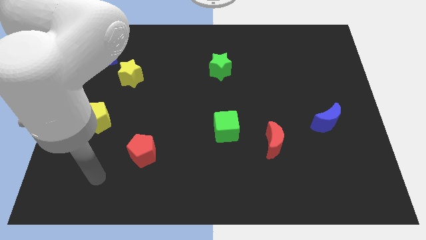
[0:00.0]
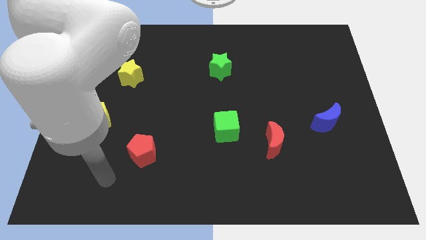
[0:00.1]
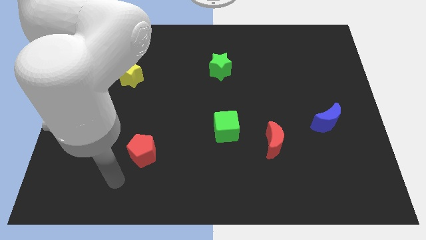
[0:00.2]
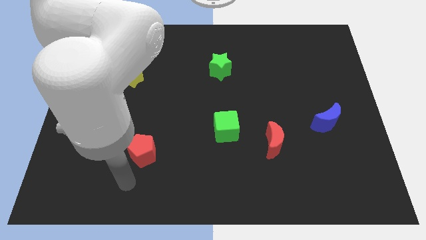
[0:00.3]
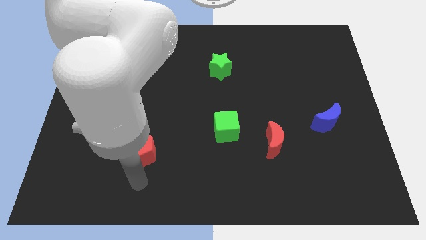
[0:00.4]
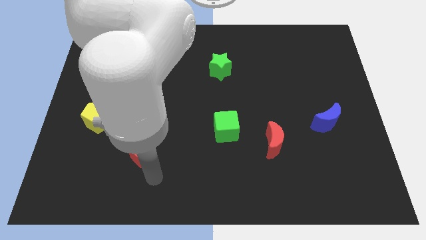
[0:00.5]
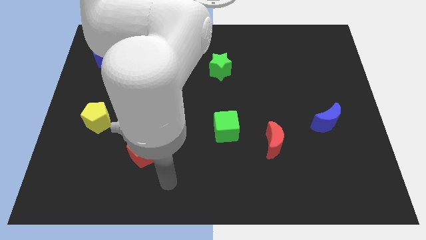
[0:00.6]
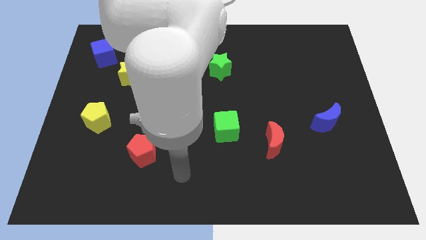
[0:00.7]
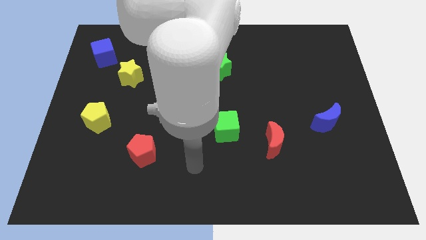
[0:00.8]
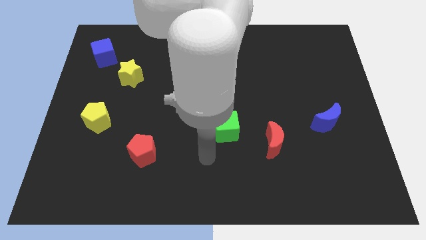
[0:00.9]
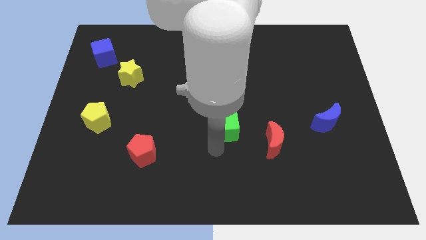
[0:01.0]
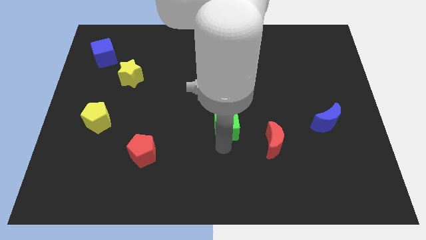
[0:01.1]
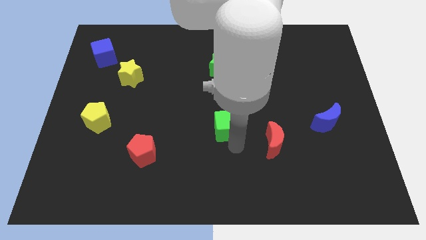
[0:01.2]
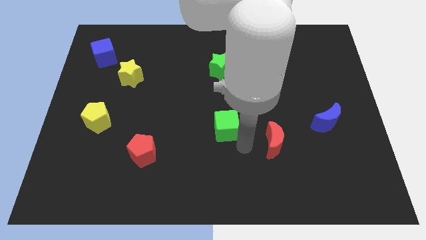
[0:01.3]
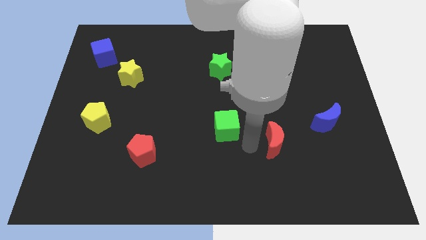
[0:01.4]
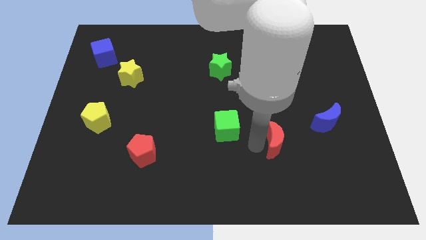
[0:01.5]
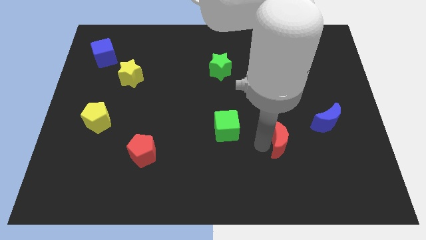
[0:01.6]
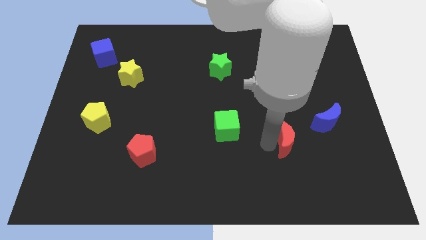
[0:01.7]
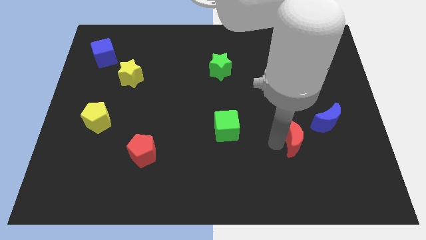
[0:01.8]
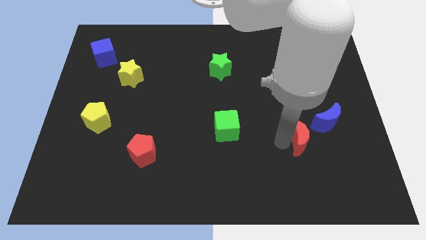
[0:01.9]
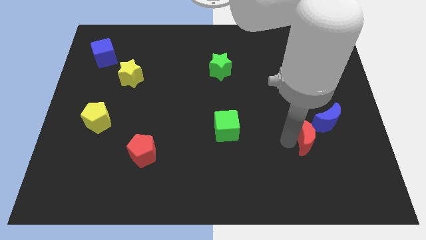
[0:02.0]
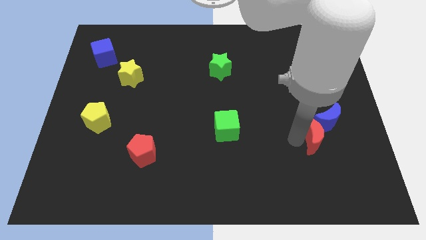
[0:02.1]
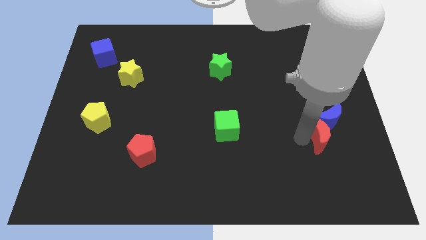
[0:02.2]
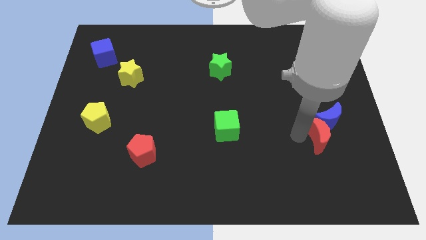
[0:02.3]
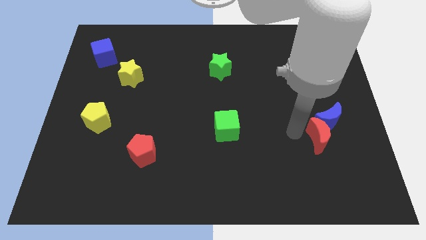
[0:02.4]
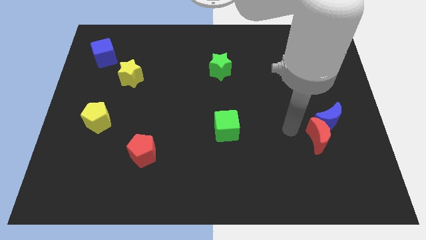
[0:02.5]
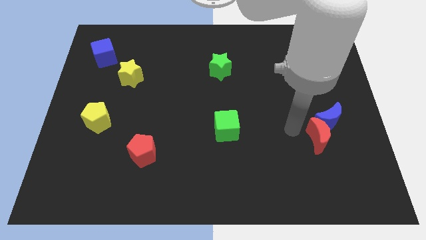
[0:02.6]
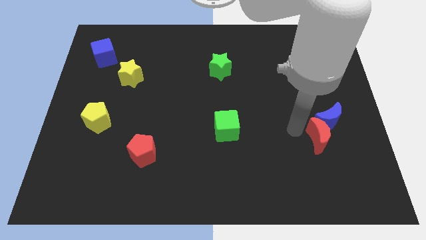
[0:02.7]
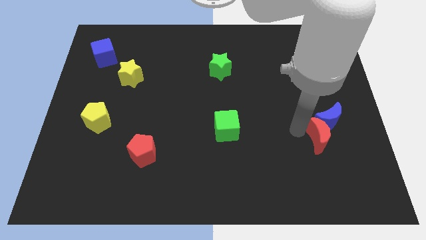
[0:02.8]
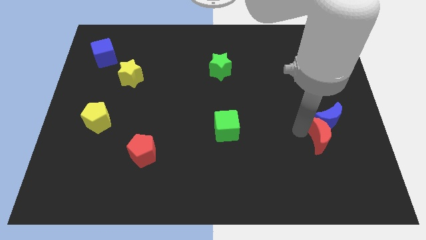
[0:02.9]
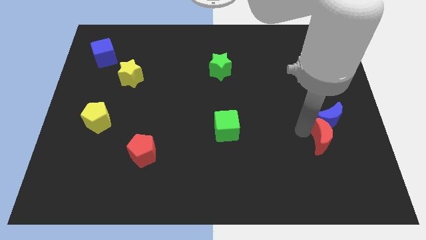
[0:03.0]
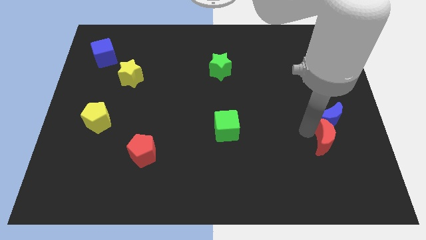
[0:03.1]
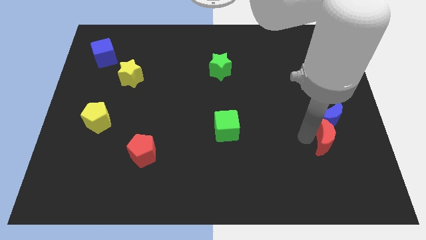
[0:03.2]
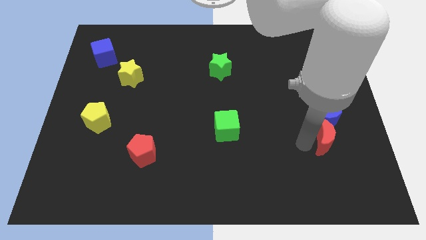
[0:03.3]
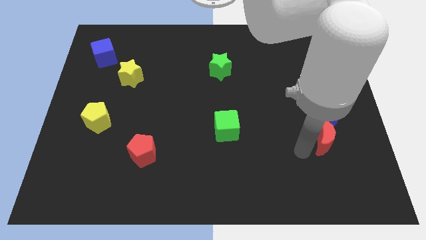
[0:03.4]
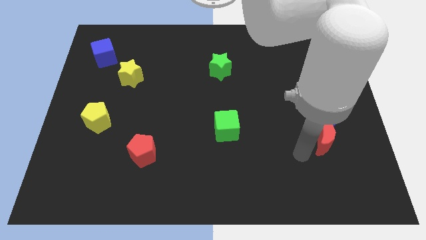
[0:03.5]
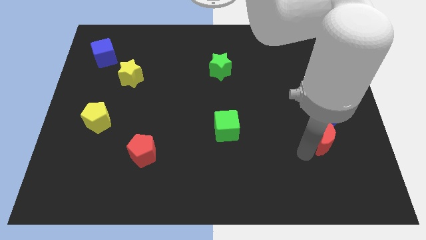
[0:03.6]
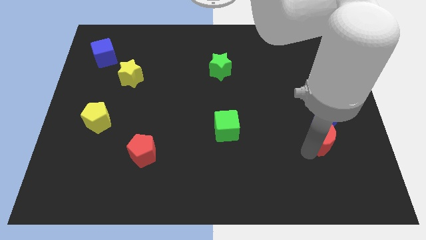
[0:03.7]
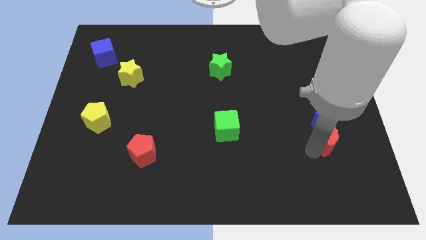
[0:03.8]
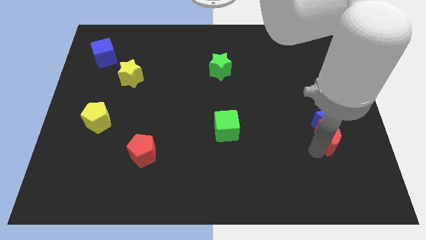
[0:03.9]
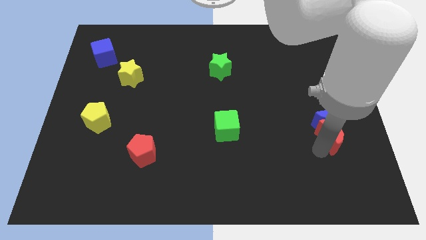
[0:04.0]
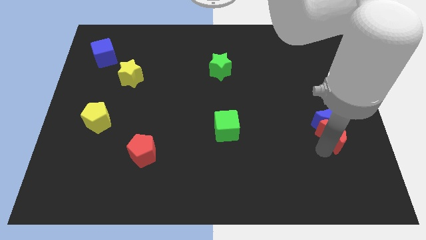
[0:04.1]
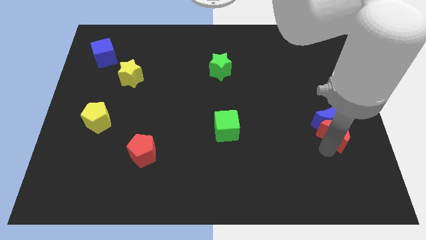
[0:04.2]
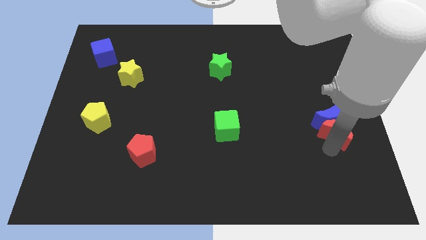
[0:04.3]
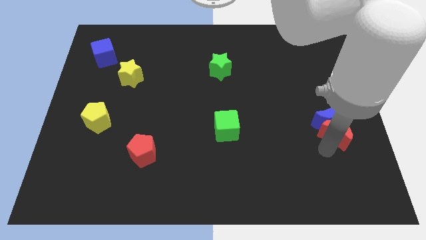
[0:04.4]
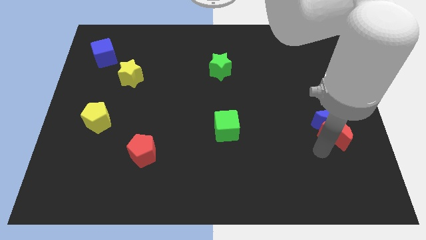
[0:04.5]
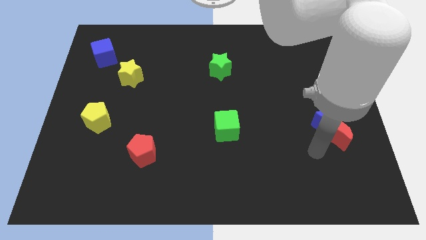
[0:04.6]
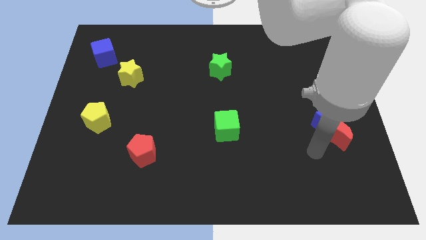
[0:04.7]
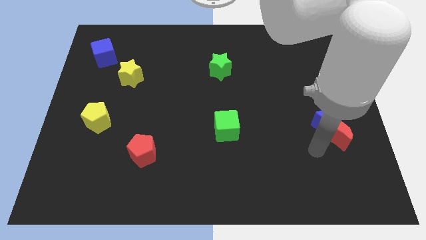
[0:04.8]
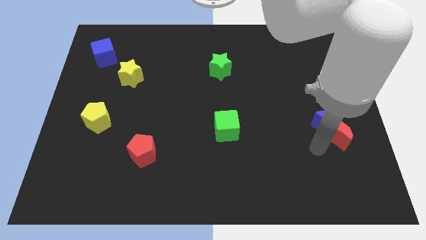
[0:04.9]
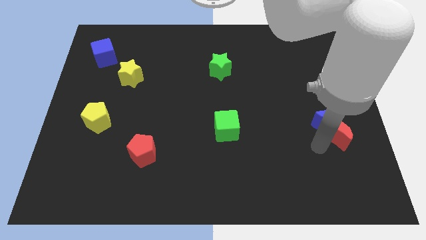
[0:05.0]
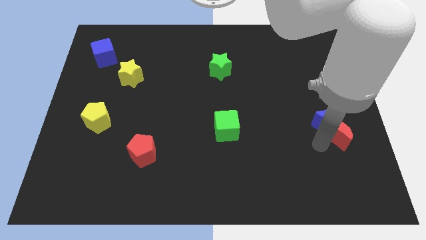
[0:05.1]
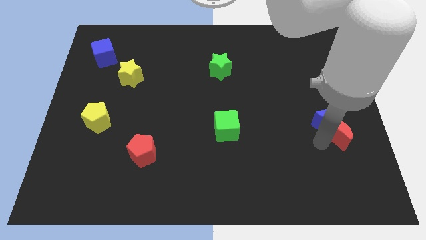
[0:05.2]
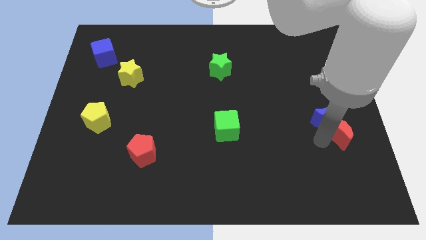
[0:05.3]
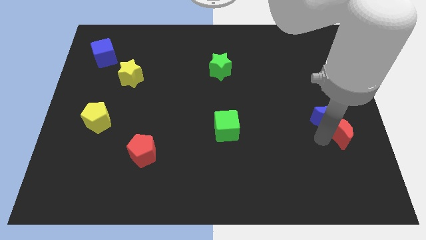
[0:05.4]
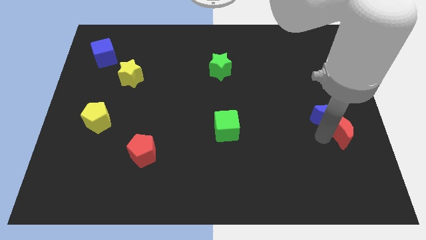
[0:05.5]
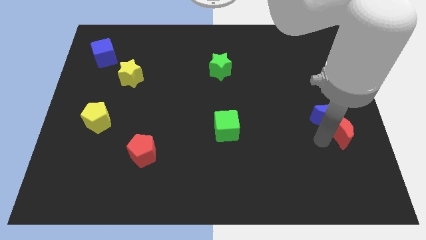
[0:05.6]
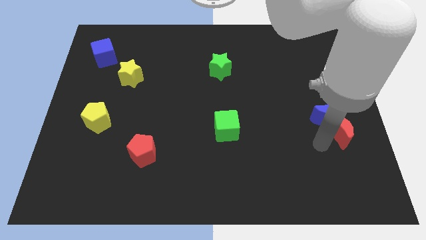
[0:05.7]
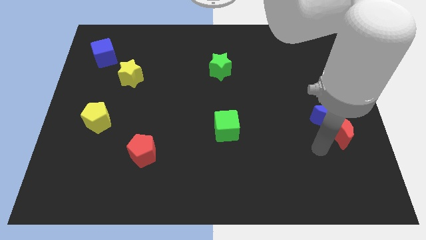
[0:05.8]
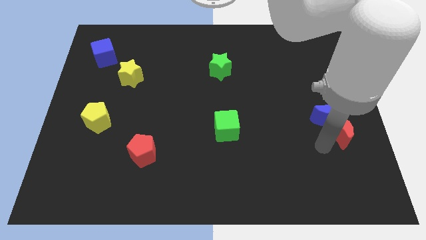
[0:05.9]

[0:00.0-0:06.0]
move the red moon to the center right

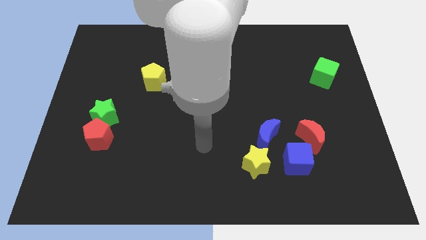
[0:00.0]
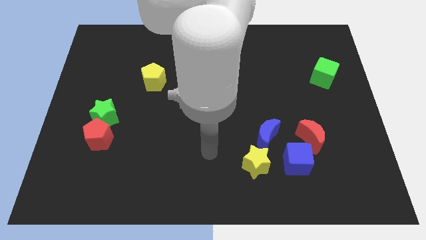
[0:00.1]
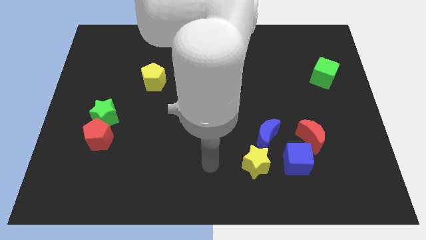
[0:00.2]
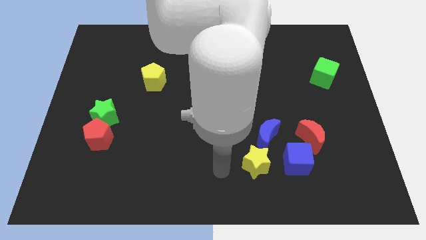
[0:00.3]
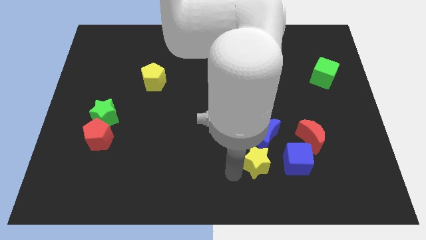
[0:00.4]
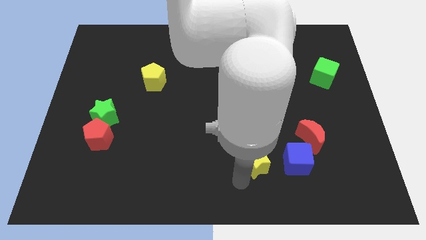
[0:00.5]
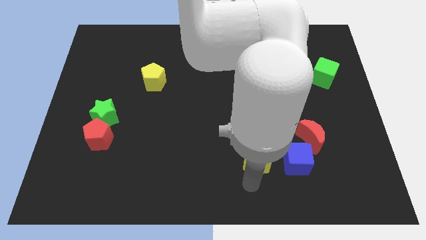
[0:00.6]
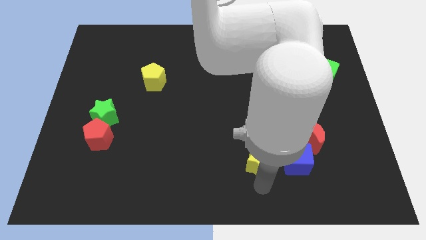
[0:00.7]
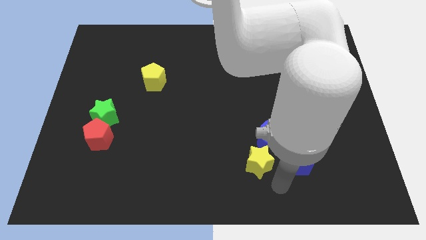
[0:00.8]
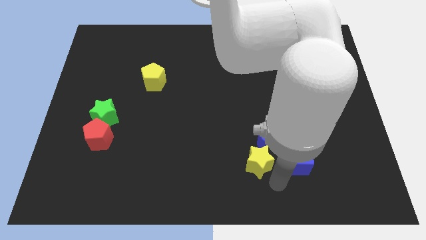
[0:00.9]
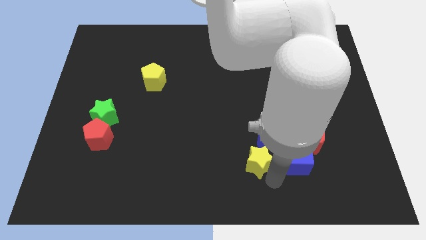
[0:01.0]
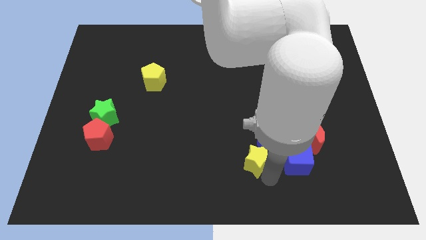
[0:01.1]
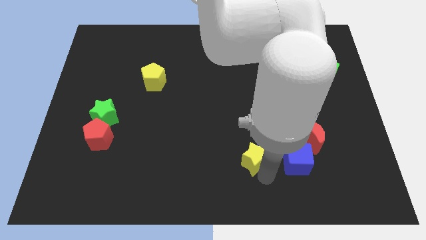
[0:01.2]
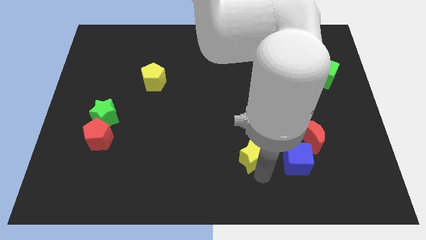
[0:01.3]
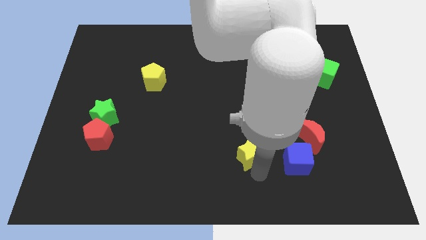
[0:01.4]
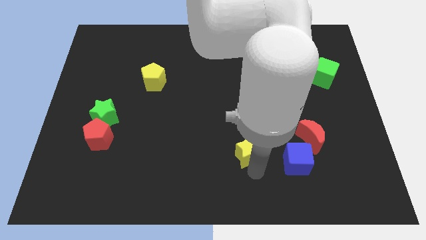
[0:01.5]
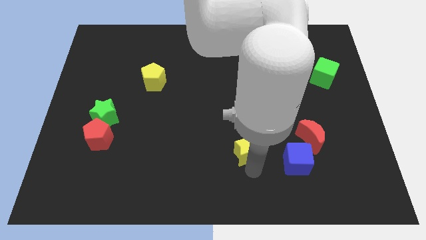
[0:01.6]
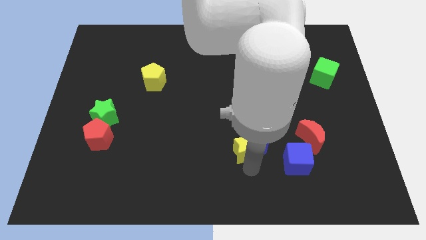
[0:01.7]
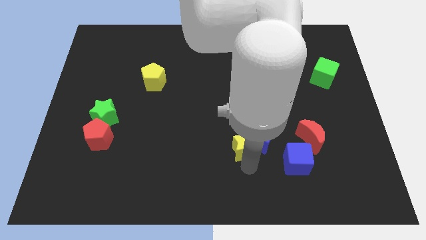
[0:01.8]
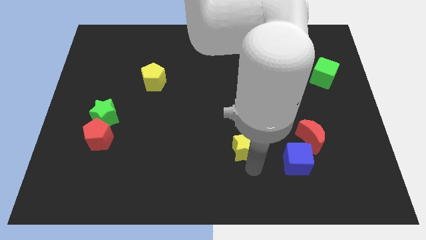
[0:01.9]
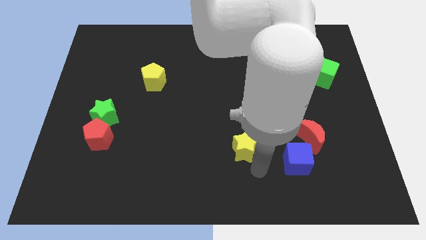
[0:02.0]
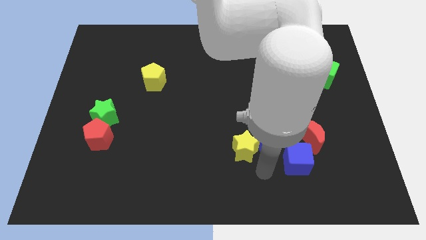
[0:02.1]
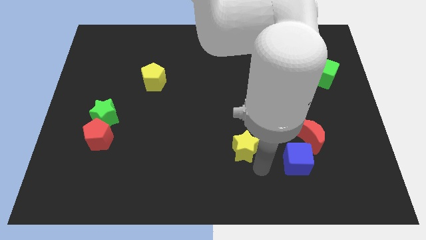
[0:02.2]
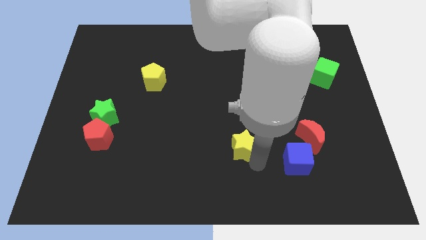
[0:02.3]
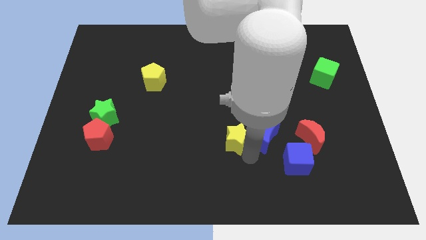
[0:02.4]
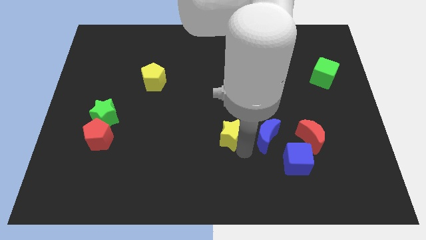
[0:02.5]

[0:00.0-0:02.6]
push the yellow star to the center
